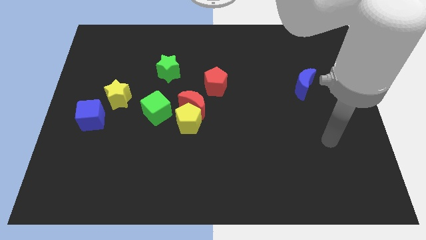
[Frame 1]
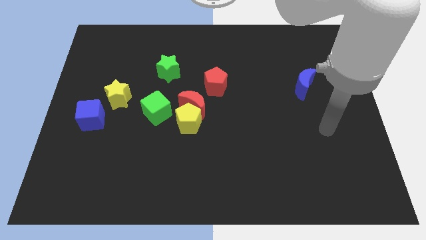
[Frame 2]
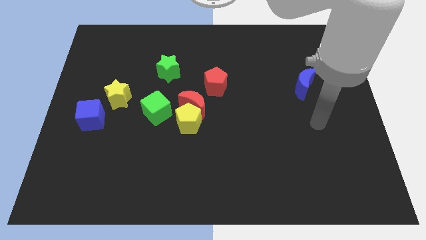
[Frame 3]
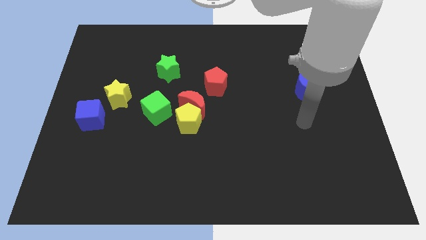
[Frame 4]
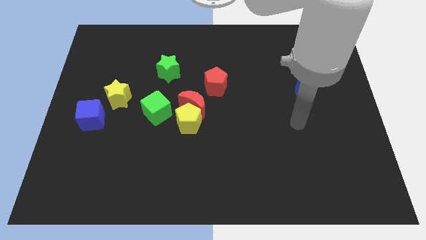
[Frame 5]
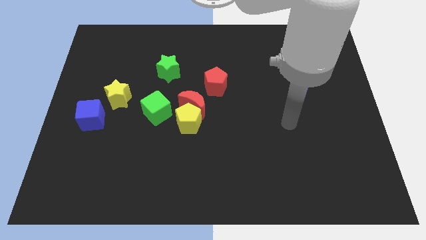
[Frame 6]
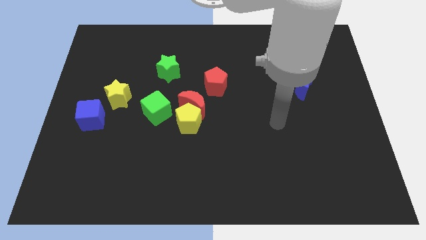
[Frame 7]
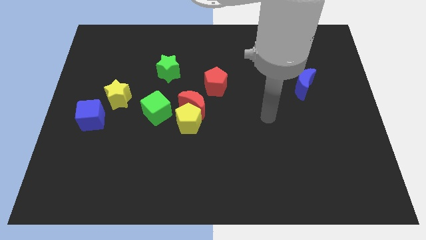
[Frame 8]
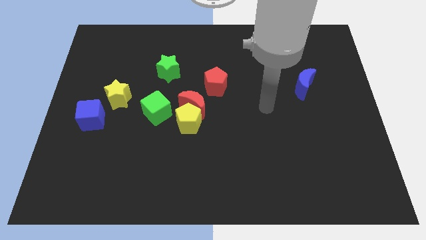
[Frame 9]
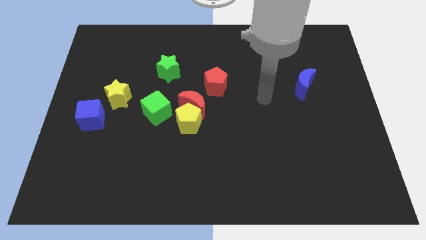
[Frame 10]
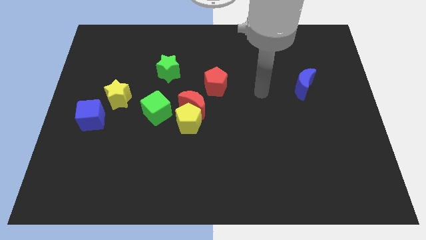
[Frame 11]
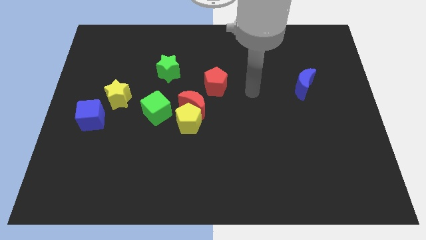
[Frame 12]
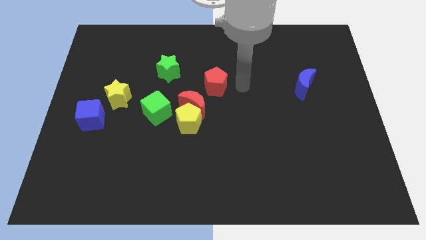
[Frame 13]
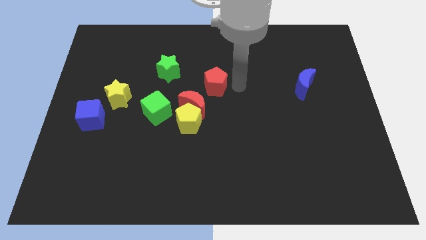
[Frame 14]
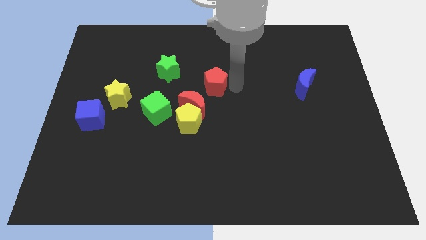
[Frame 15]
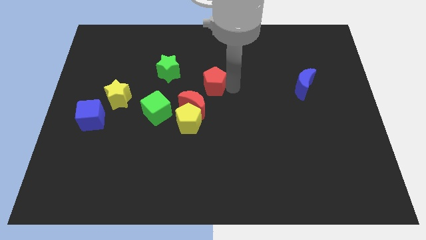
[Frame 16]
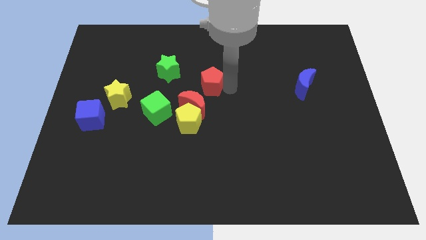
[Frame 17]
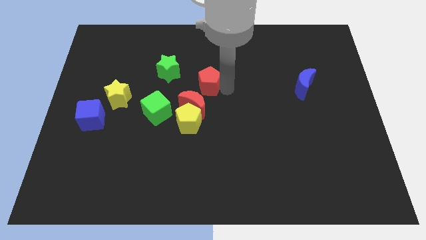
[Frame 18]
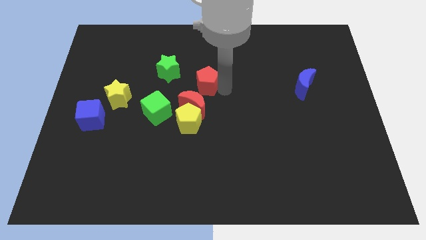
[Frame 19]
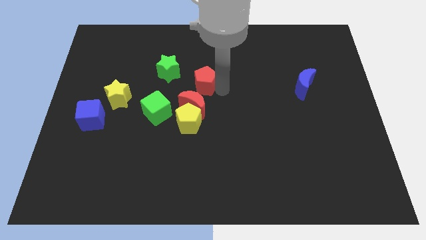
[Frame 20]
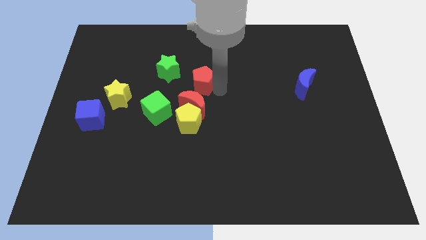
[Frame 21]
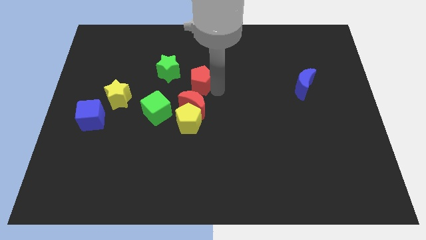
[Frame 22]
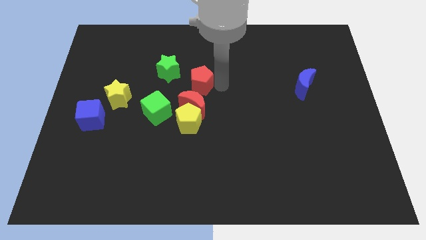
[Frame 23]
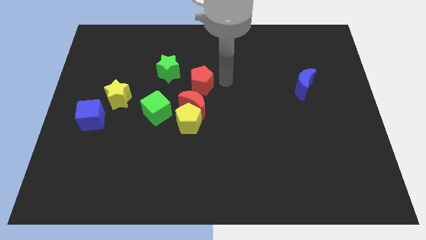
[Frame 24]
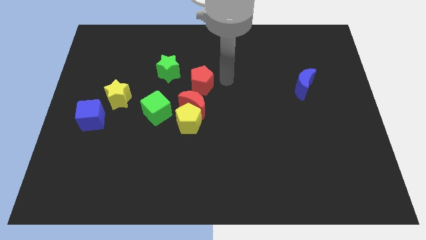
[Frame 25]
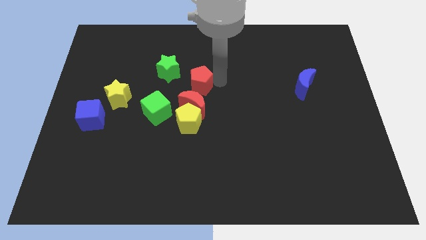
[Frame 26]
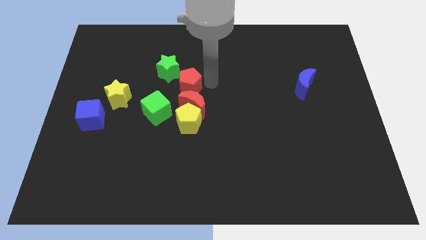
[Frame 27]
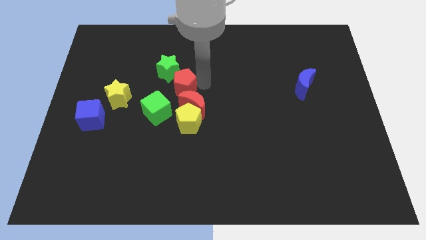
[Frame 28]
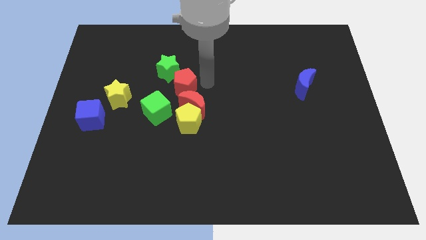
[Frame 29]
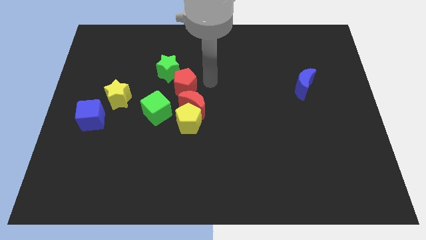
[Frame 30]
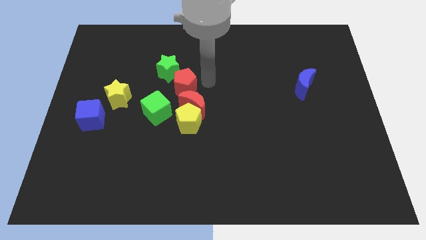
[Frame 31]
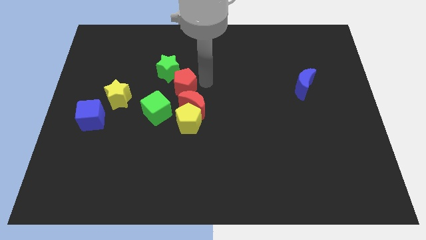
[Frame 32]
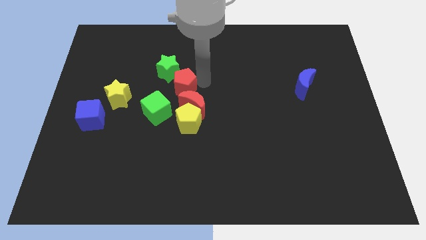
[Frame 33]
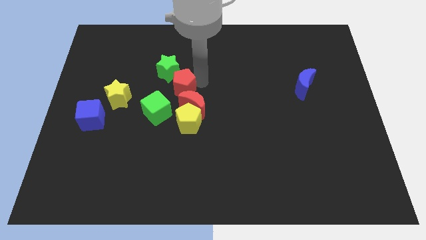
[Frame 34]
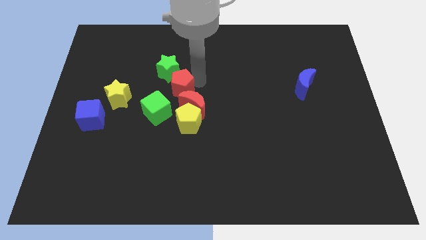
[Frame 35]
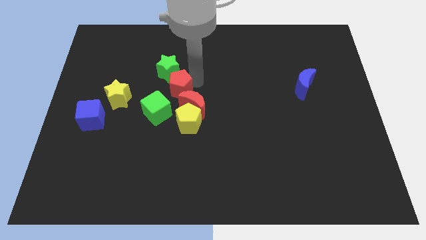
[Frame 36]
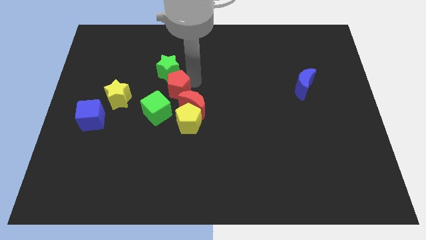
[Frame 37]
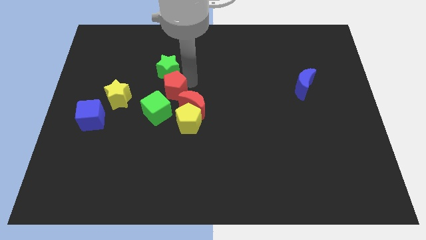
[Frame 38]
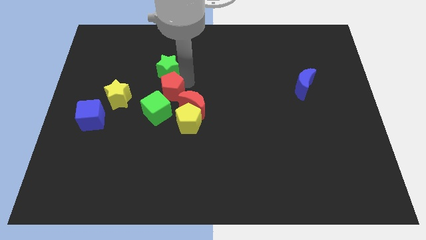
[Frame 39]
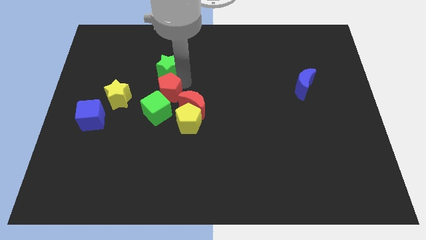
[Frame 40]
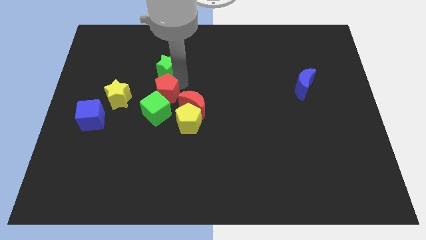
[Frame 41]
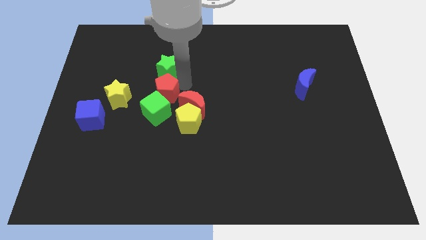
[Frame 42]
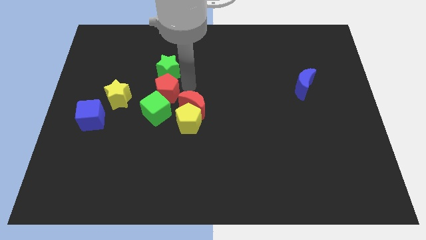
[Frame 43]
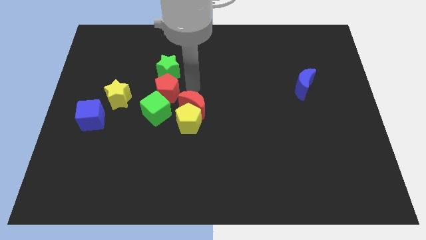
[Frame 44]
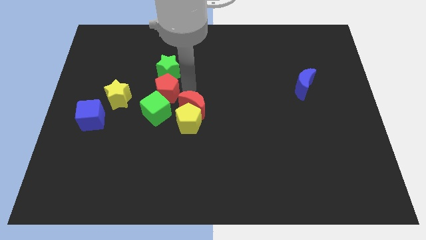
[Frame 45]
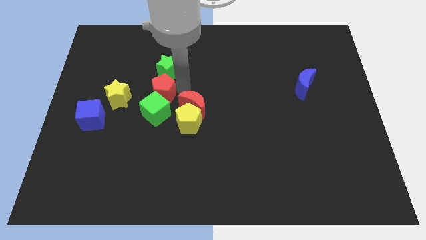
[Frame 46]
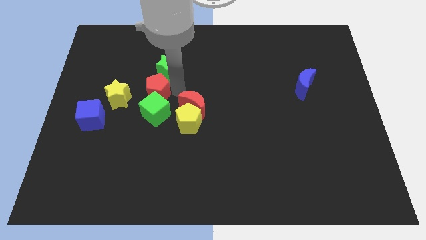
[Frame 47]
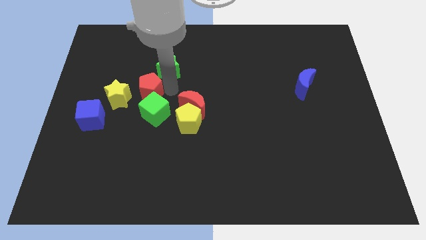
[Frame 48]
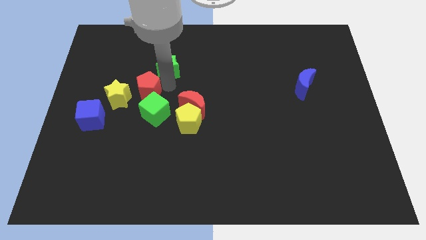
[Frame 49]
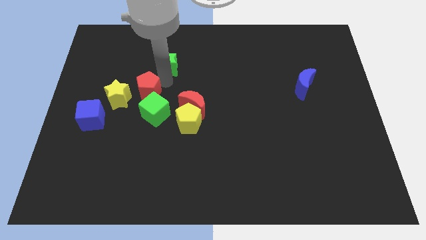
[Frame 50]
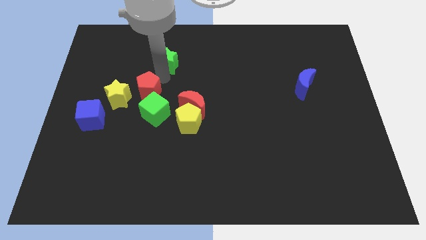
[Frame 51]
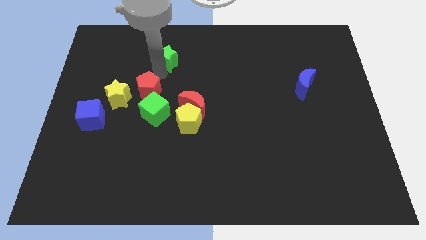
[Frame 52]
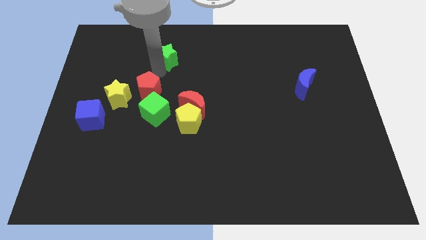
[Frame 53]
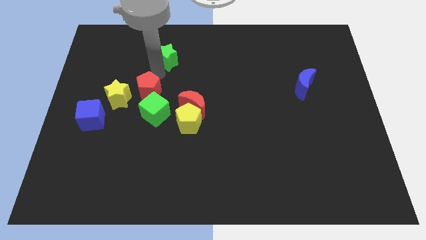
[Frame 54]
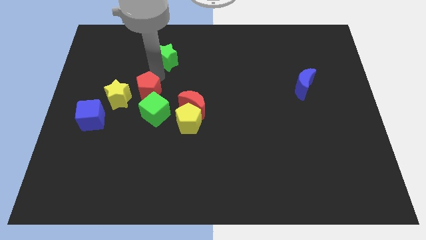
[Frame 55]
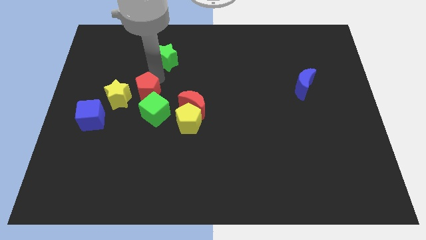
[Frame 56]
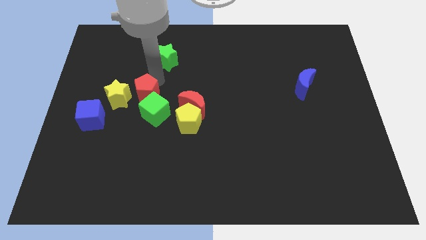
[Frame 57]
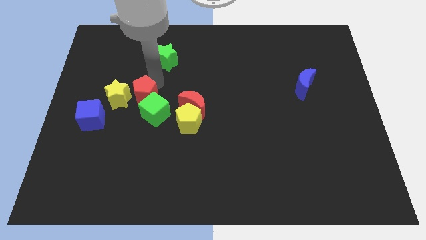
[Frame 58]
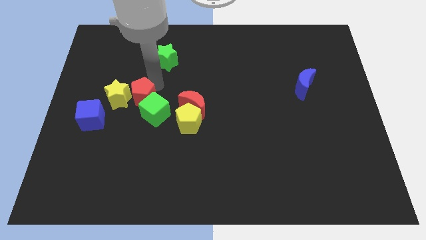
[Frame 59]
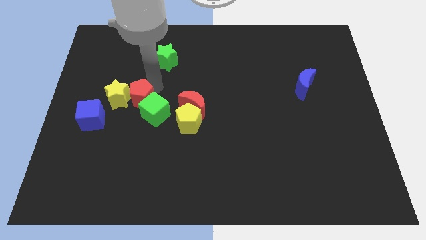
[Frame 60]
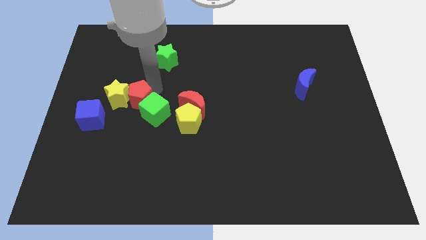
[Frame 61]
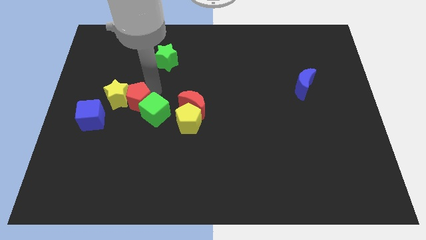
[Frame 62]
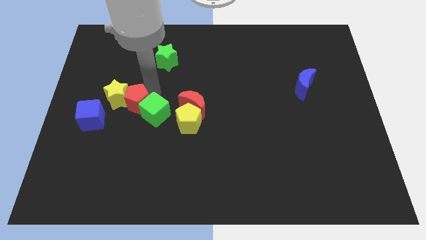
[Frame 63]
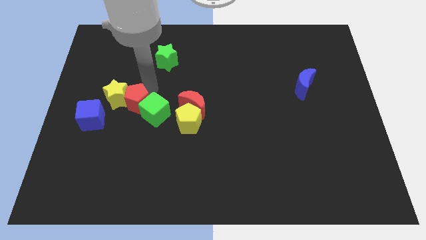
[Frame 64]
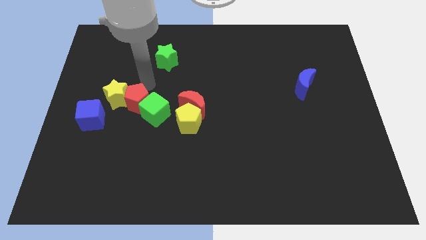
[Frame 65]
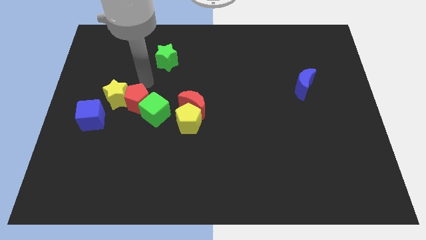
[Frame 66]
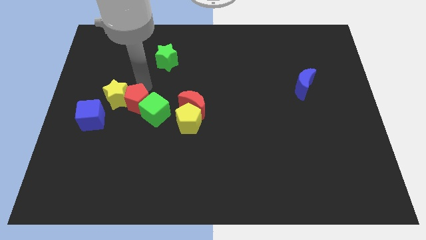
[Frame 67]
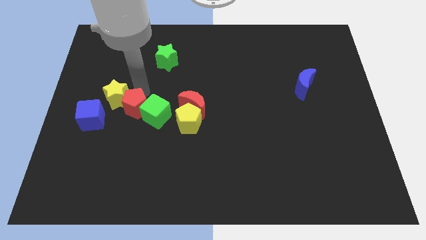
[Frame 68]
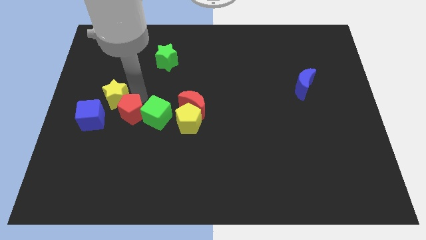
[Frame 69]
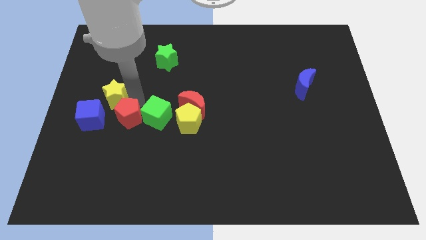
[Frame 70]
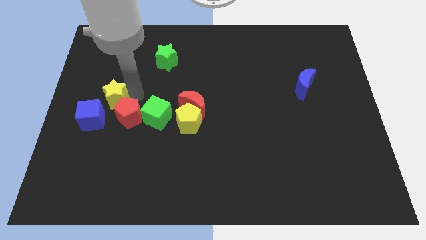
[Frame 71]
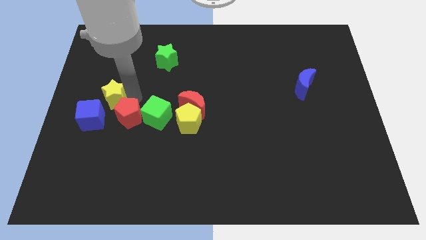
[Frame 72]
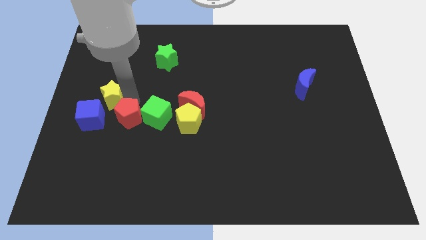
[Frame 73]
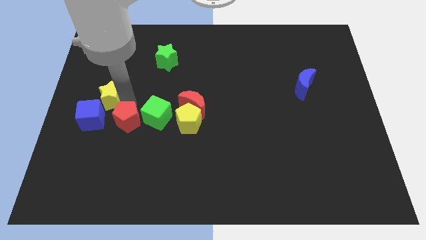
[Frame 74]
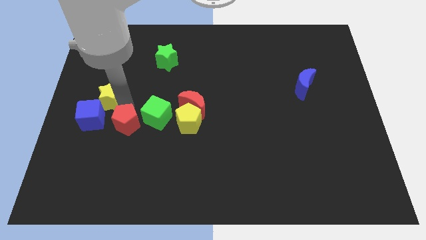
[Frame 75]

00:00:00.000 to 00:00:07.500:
push the red pentagon down and left diagonally

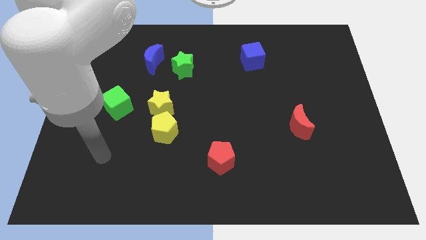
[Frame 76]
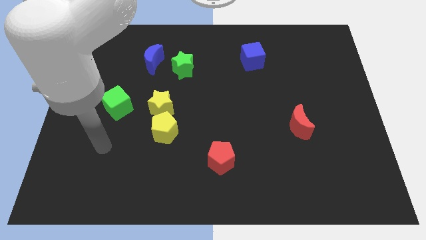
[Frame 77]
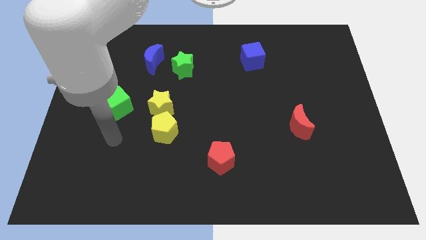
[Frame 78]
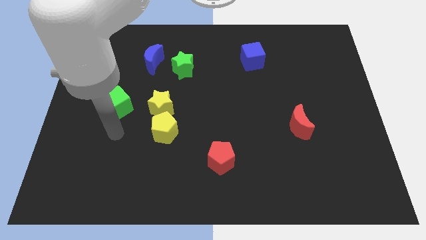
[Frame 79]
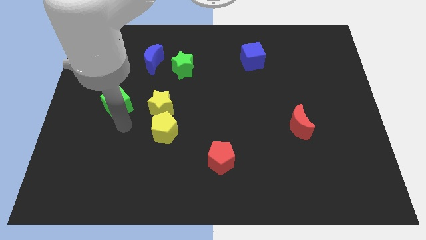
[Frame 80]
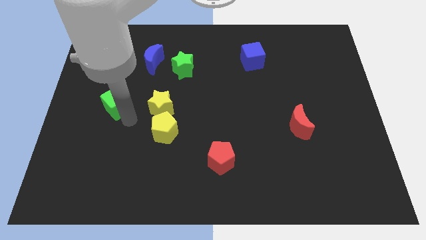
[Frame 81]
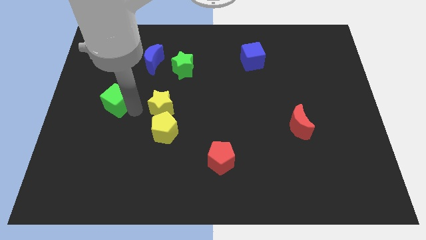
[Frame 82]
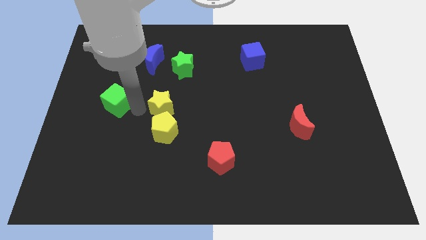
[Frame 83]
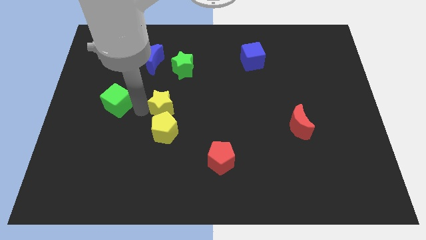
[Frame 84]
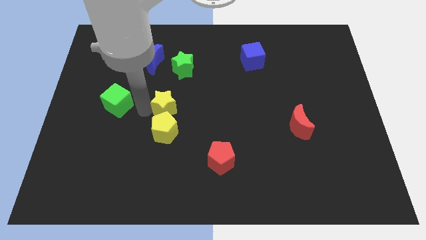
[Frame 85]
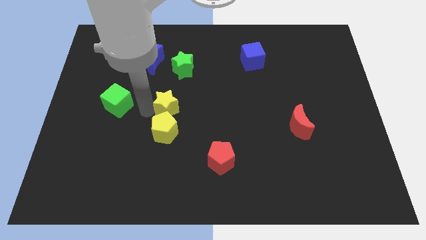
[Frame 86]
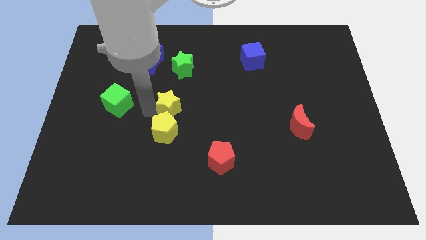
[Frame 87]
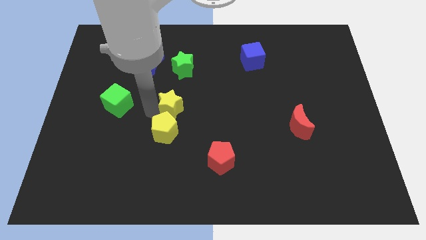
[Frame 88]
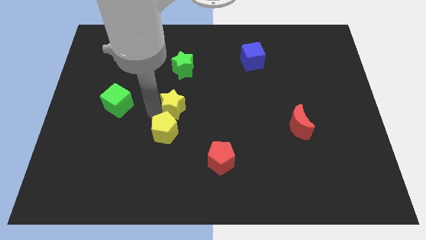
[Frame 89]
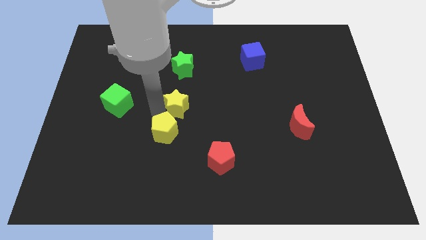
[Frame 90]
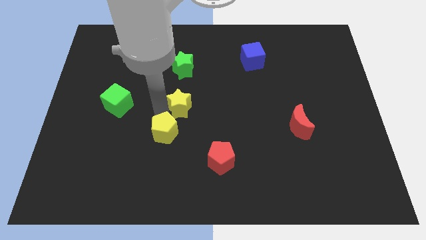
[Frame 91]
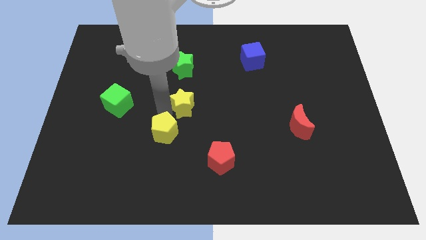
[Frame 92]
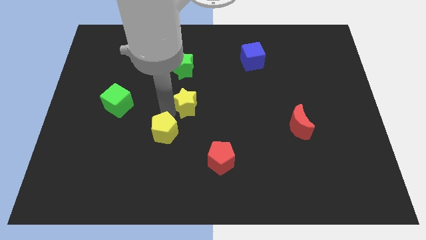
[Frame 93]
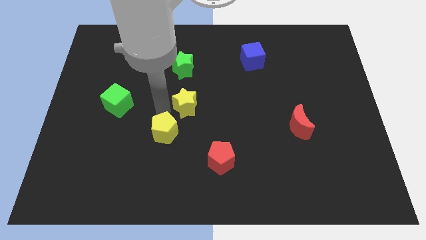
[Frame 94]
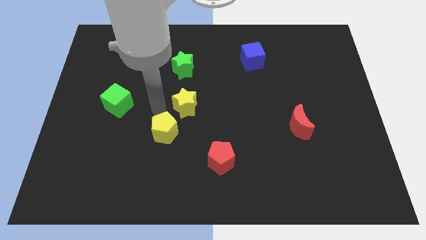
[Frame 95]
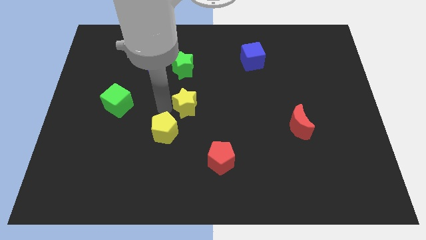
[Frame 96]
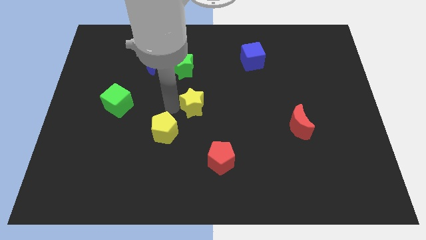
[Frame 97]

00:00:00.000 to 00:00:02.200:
slightly move the yellow star right
